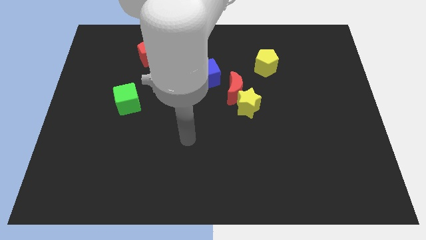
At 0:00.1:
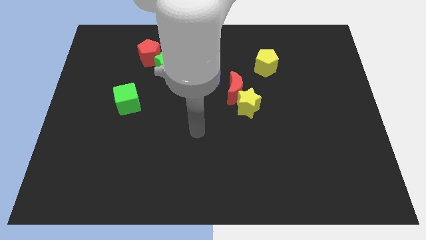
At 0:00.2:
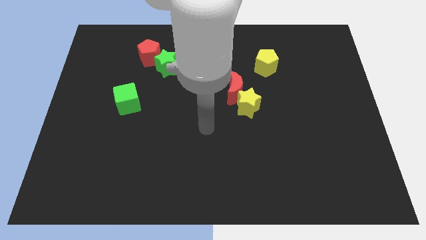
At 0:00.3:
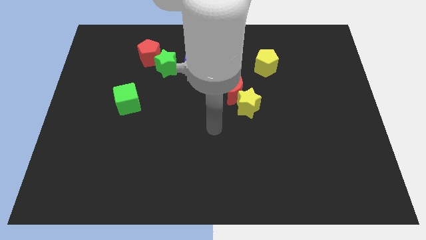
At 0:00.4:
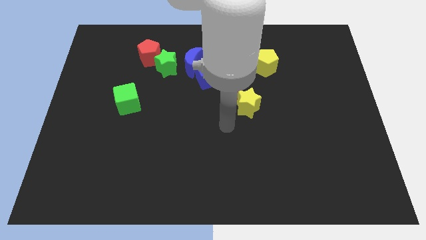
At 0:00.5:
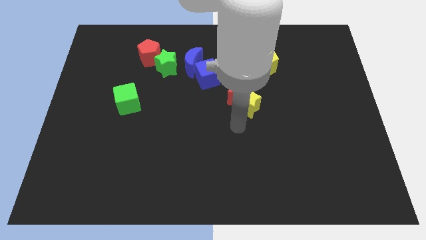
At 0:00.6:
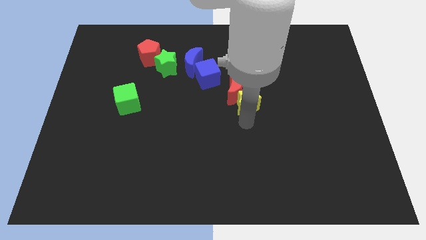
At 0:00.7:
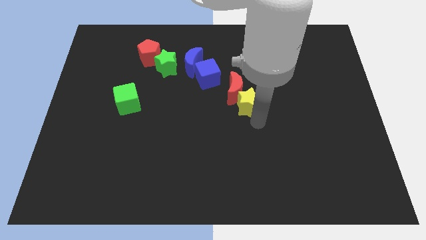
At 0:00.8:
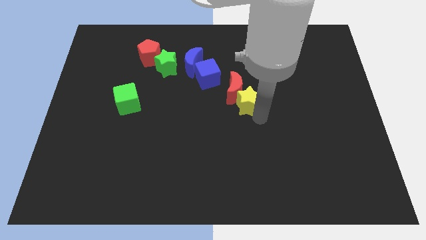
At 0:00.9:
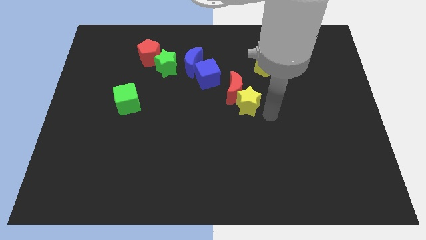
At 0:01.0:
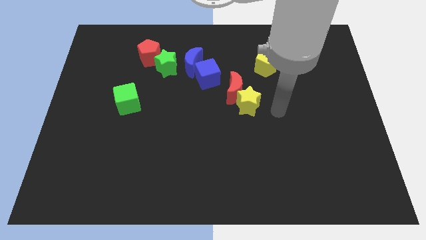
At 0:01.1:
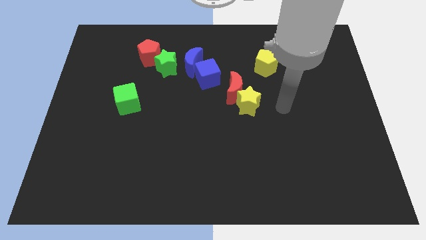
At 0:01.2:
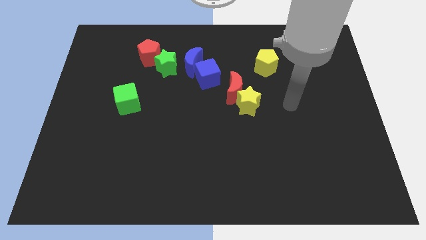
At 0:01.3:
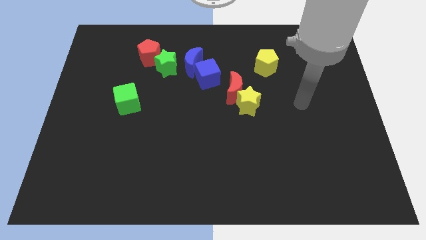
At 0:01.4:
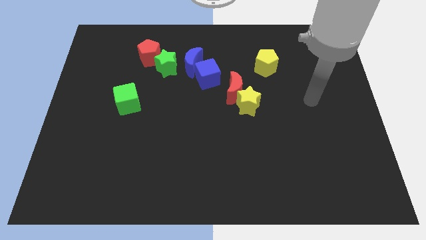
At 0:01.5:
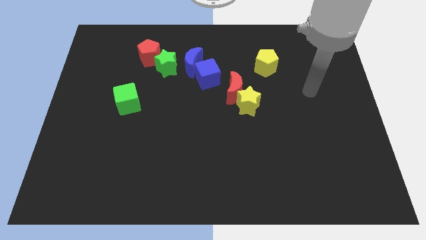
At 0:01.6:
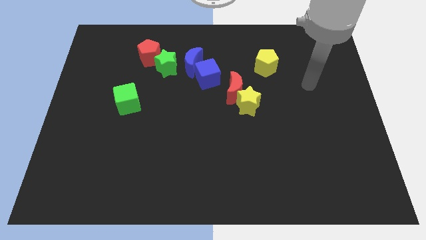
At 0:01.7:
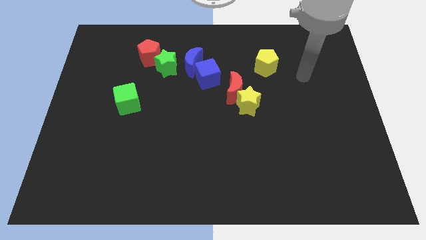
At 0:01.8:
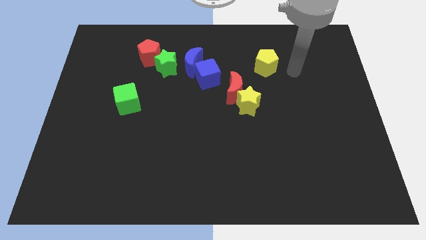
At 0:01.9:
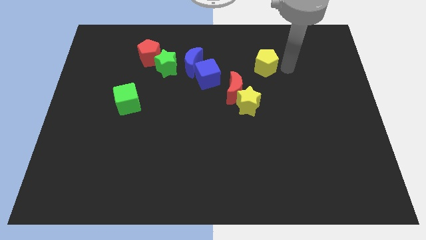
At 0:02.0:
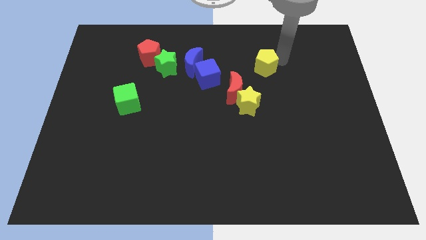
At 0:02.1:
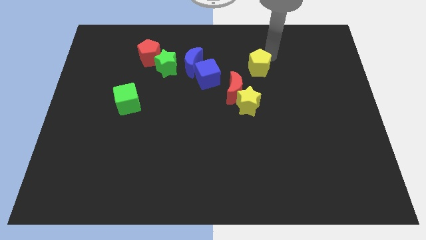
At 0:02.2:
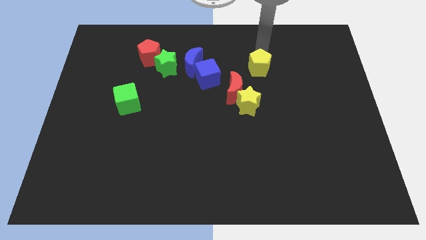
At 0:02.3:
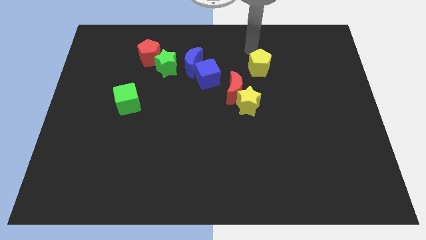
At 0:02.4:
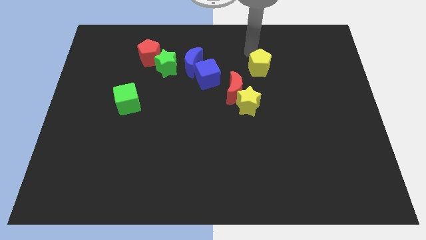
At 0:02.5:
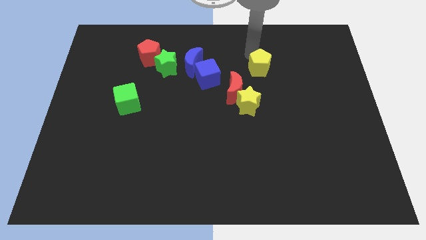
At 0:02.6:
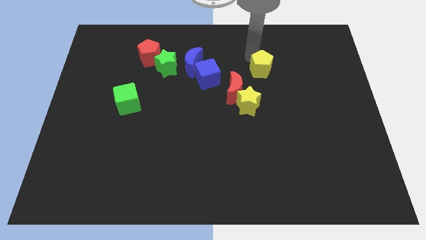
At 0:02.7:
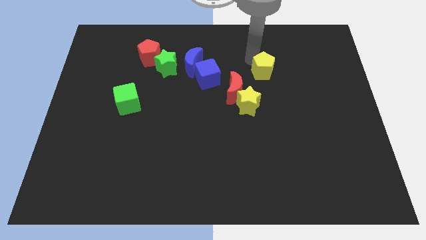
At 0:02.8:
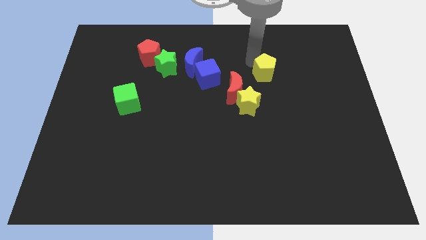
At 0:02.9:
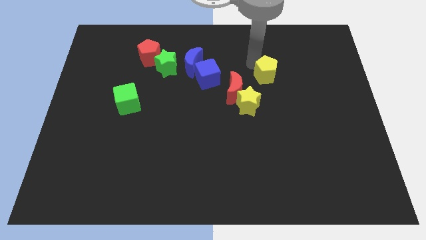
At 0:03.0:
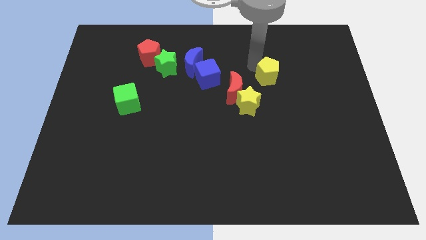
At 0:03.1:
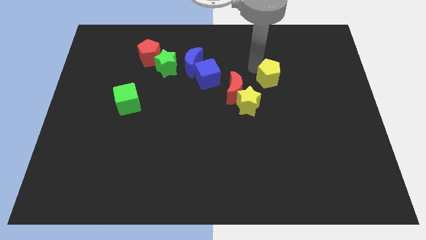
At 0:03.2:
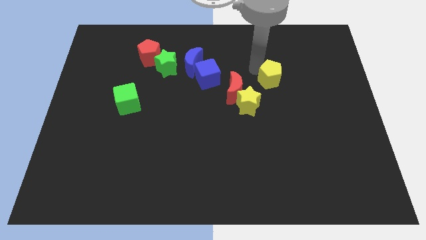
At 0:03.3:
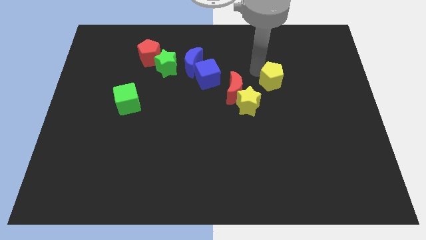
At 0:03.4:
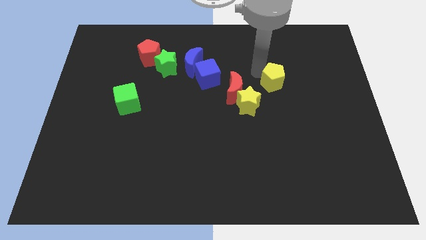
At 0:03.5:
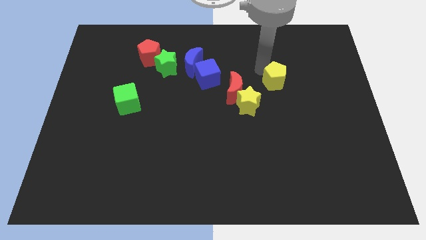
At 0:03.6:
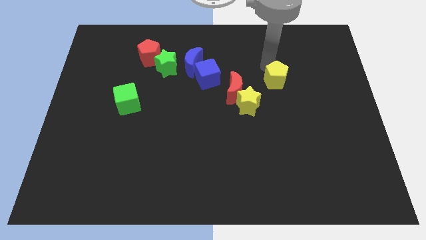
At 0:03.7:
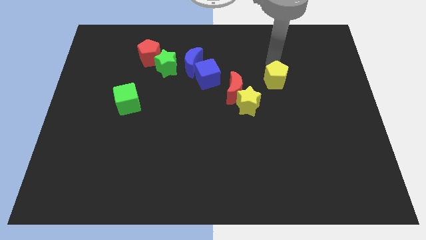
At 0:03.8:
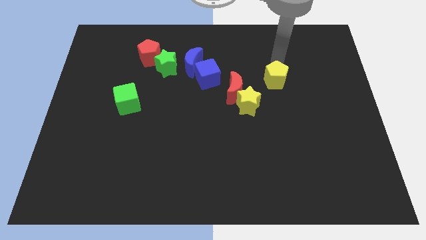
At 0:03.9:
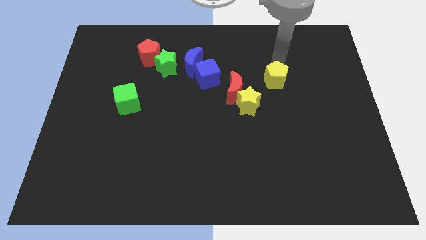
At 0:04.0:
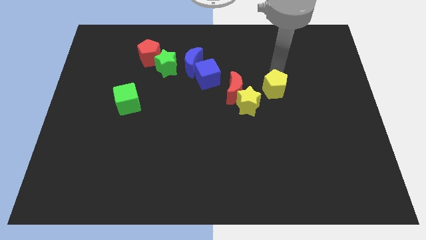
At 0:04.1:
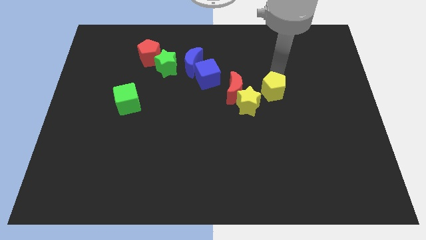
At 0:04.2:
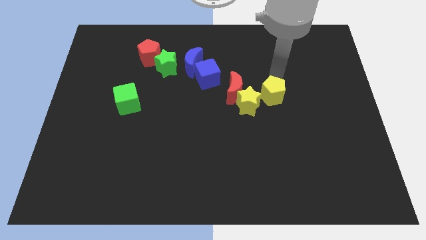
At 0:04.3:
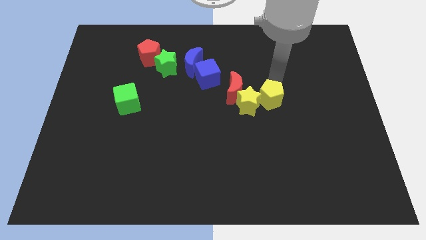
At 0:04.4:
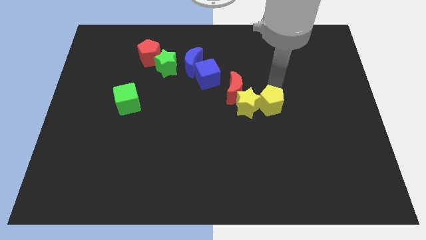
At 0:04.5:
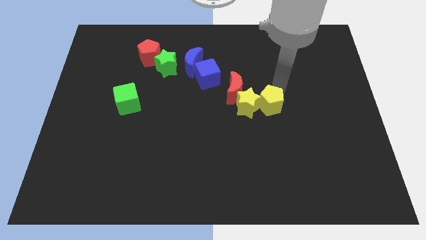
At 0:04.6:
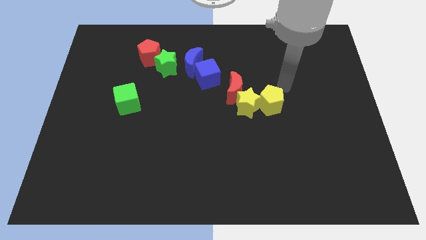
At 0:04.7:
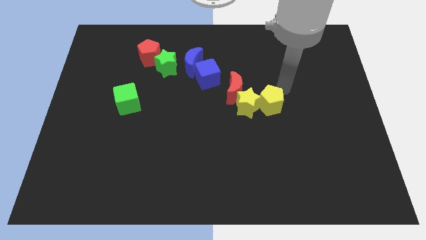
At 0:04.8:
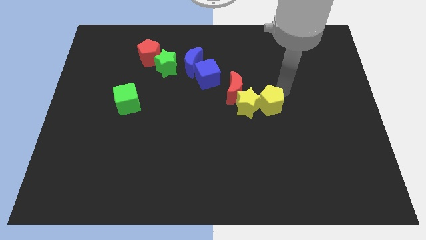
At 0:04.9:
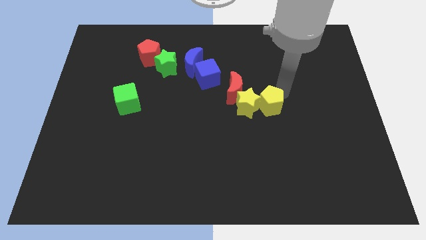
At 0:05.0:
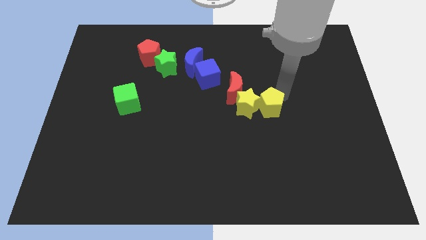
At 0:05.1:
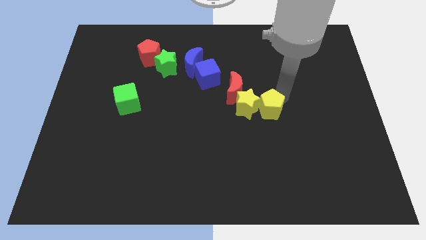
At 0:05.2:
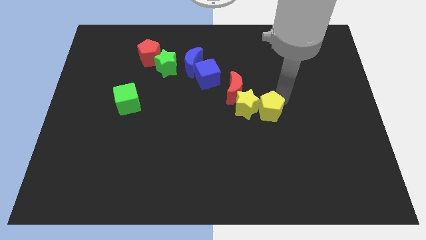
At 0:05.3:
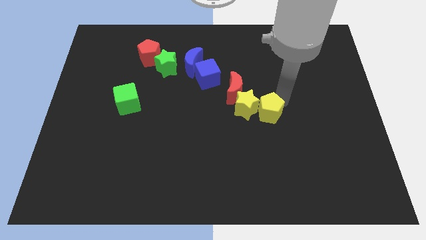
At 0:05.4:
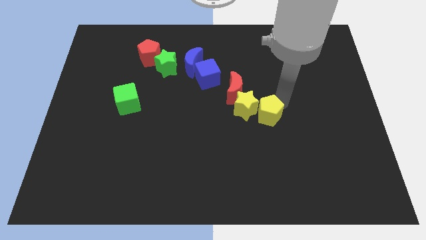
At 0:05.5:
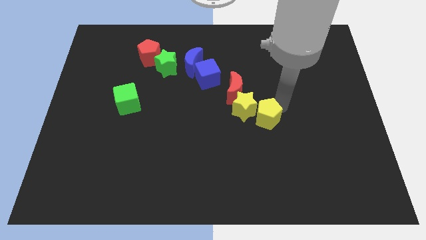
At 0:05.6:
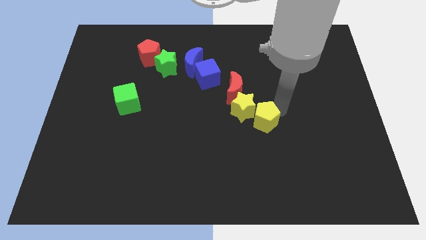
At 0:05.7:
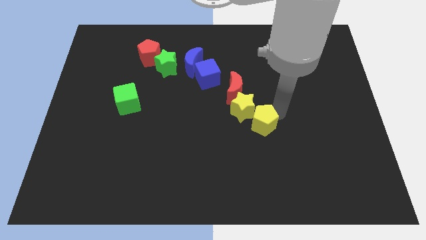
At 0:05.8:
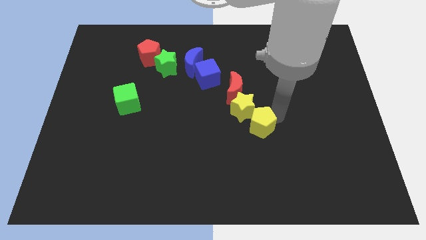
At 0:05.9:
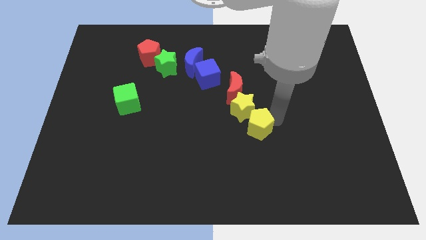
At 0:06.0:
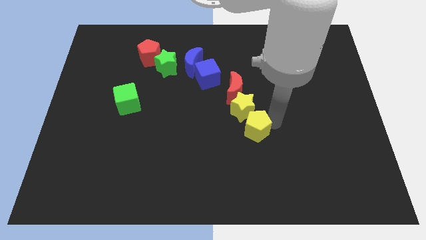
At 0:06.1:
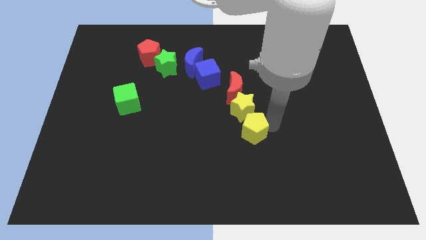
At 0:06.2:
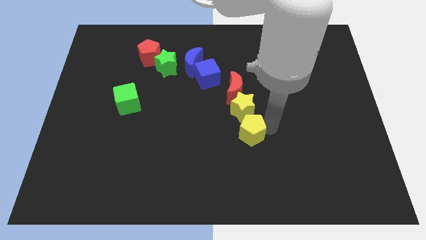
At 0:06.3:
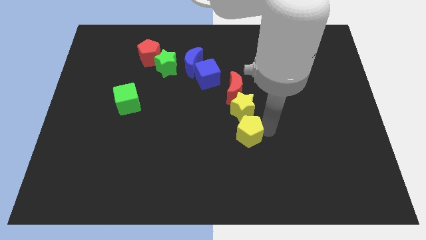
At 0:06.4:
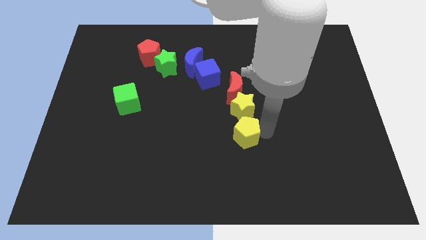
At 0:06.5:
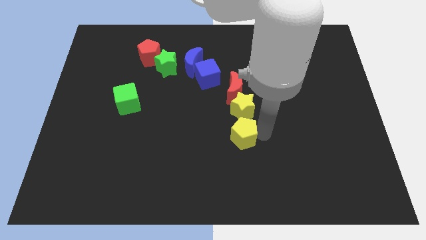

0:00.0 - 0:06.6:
push the yellow pentagon to the bottom left of the yellow star

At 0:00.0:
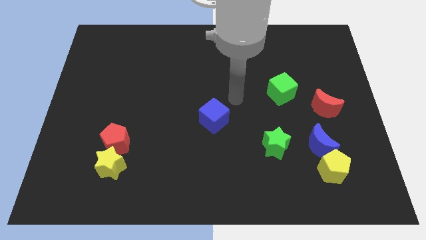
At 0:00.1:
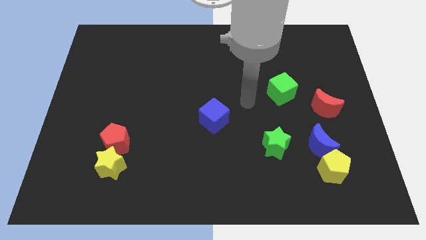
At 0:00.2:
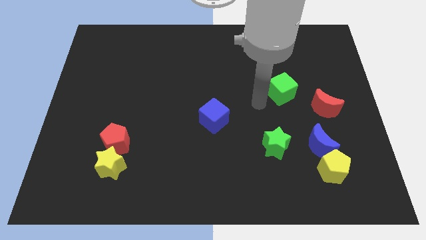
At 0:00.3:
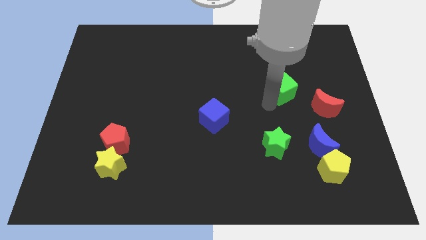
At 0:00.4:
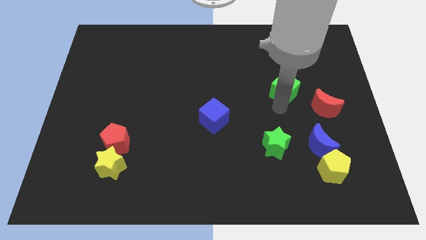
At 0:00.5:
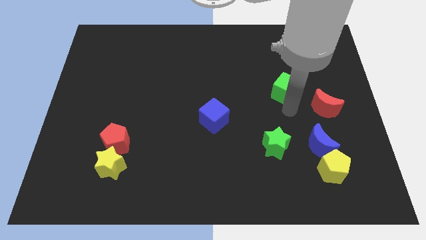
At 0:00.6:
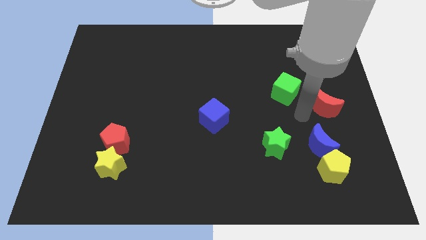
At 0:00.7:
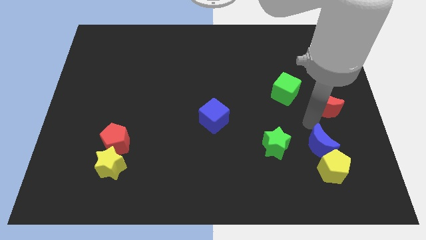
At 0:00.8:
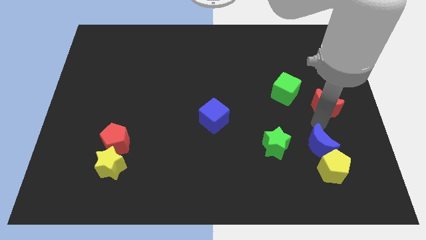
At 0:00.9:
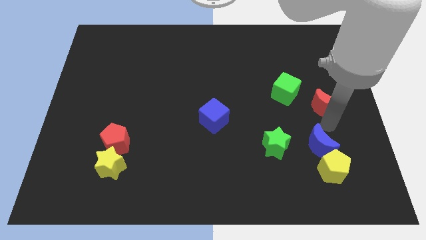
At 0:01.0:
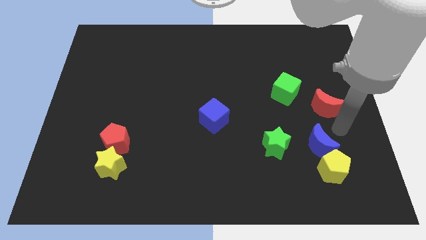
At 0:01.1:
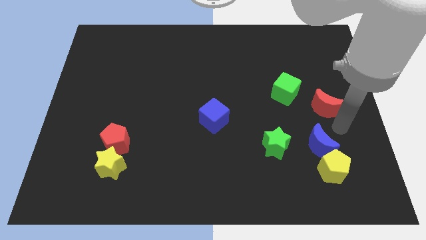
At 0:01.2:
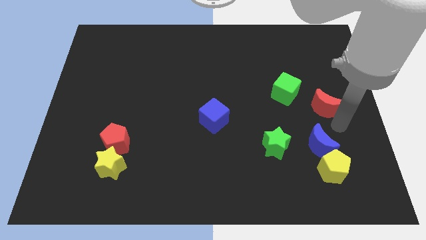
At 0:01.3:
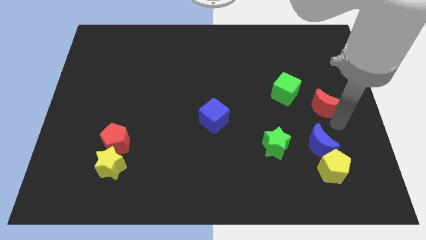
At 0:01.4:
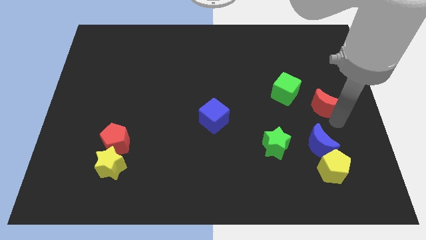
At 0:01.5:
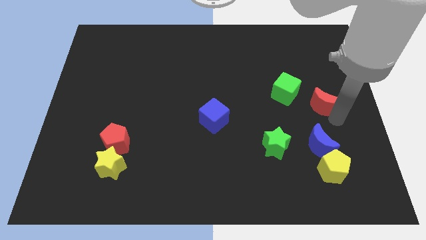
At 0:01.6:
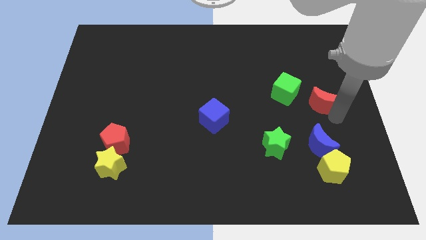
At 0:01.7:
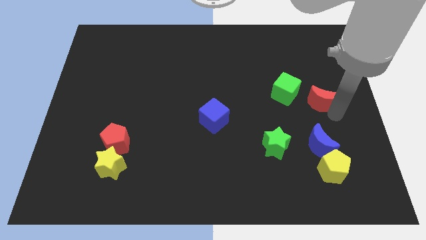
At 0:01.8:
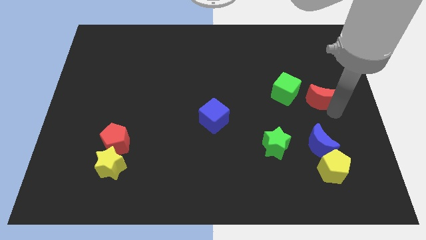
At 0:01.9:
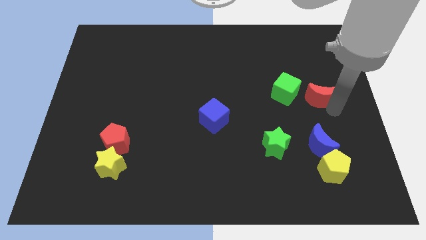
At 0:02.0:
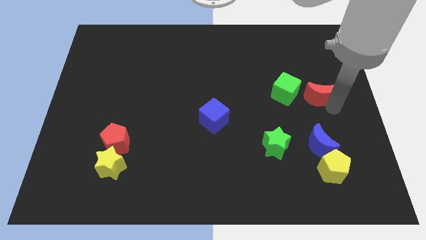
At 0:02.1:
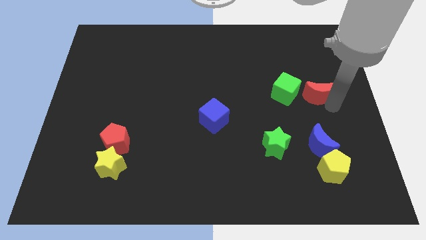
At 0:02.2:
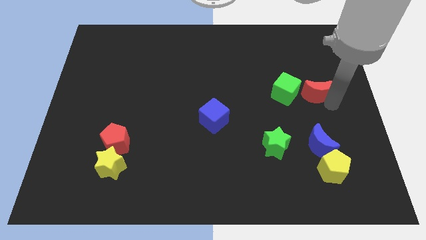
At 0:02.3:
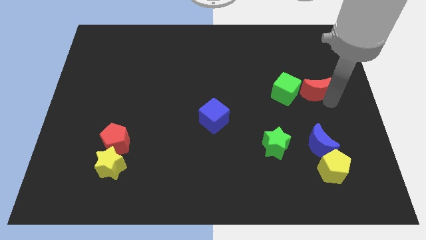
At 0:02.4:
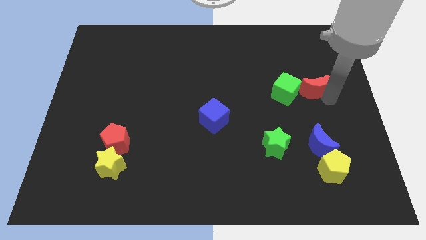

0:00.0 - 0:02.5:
put the red moon to the top right of the green cube
